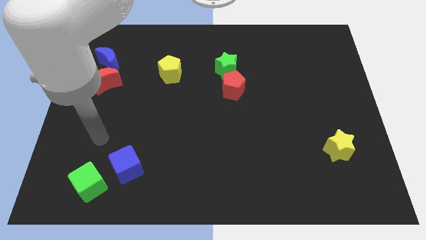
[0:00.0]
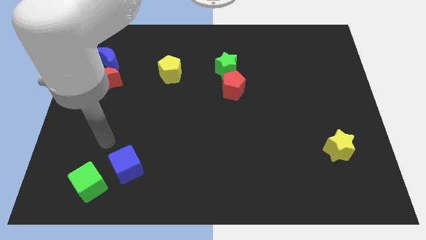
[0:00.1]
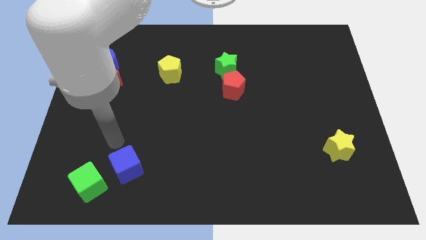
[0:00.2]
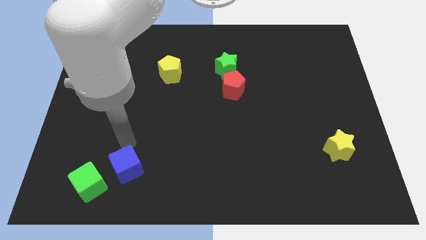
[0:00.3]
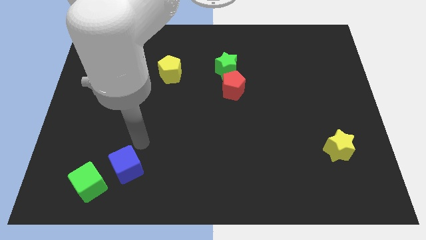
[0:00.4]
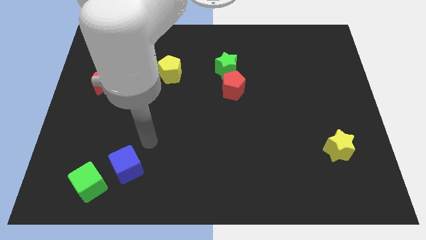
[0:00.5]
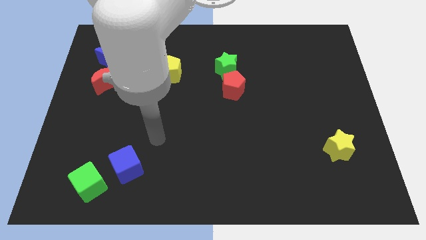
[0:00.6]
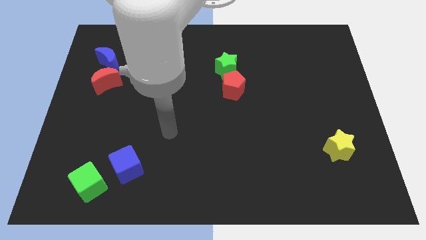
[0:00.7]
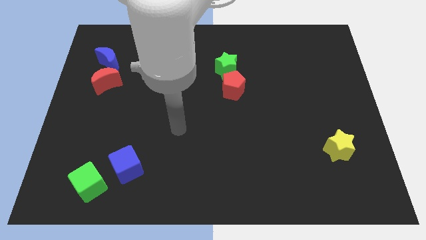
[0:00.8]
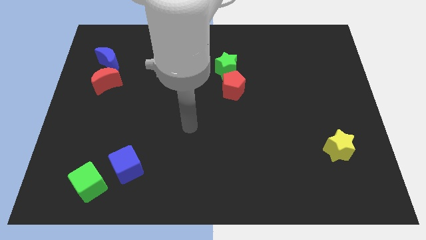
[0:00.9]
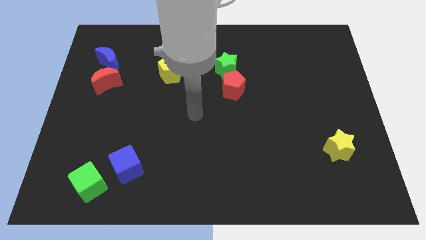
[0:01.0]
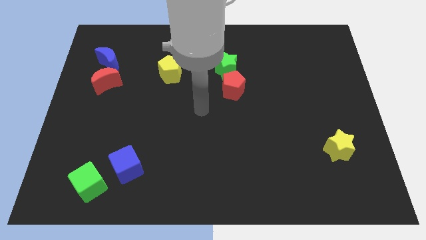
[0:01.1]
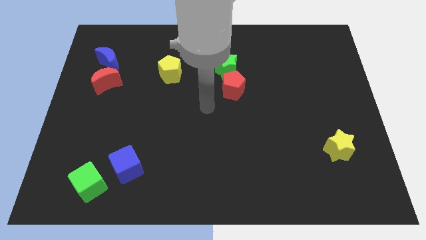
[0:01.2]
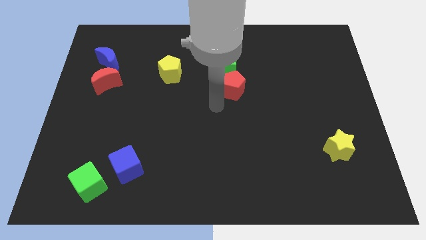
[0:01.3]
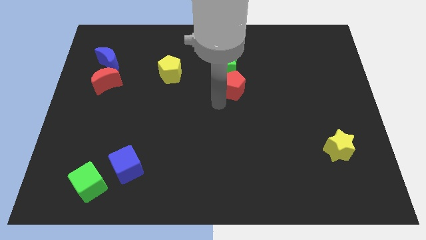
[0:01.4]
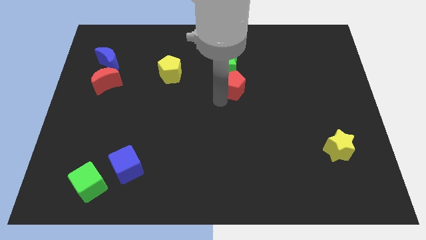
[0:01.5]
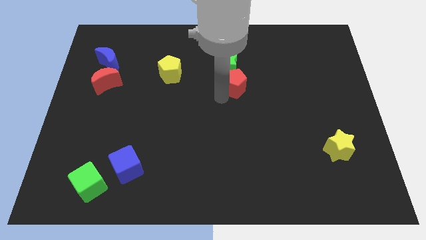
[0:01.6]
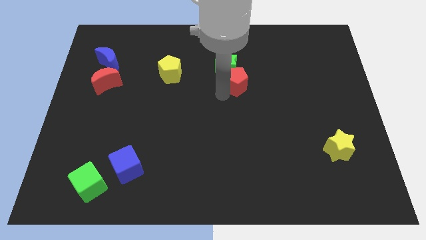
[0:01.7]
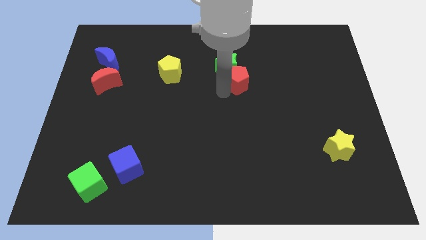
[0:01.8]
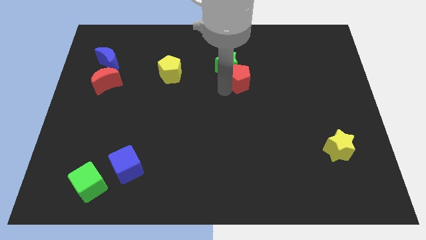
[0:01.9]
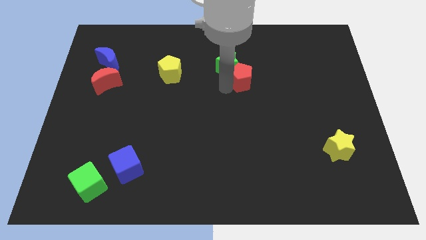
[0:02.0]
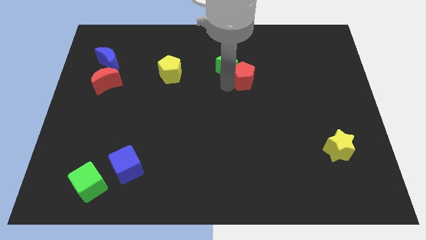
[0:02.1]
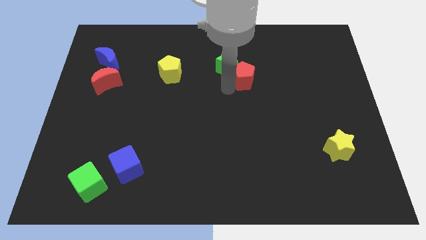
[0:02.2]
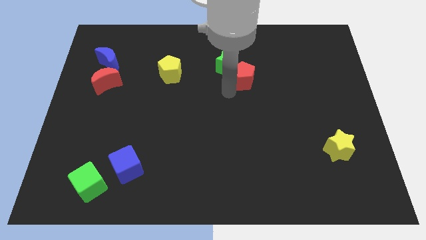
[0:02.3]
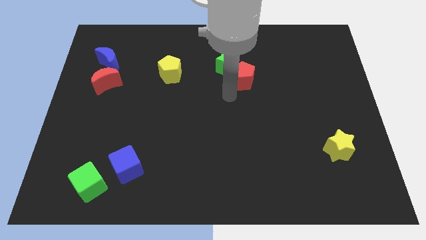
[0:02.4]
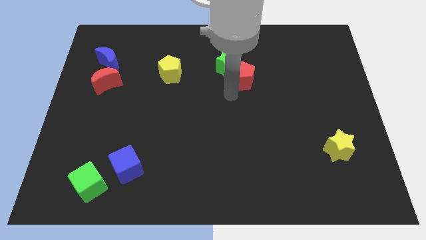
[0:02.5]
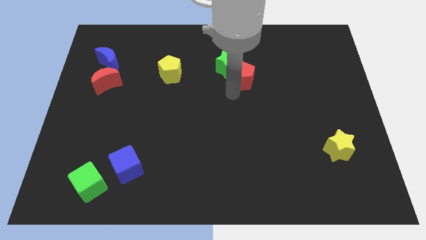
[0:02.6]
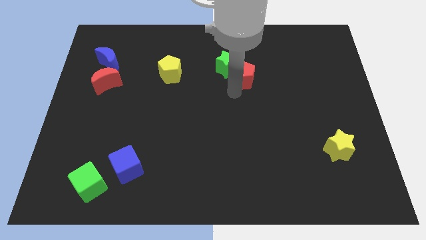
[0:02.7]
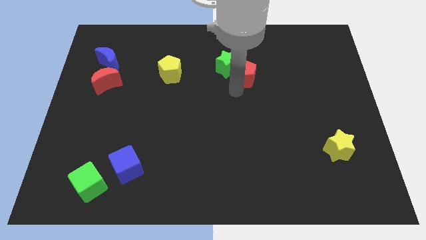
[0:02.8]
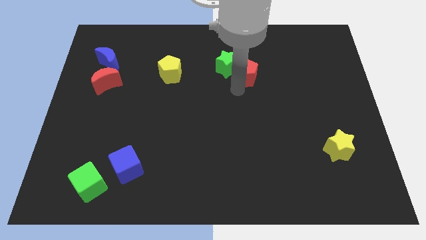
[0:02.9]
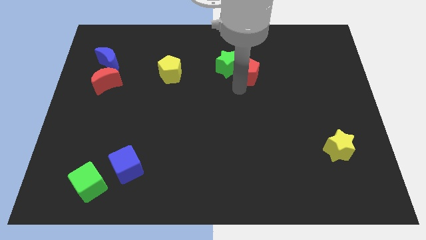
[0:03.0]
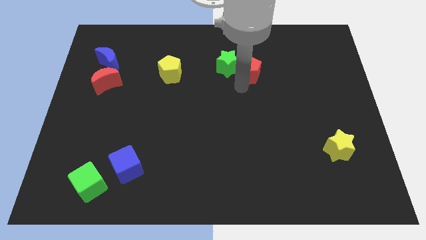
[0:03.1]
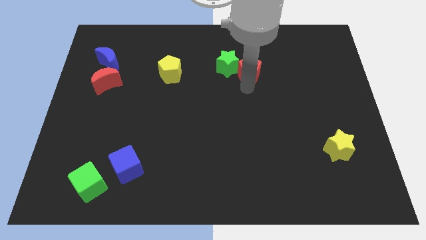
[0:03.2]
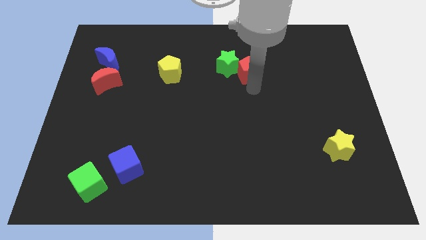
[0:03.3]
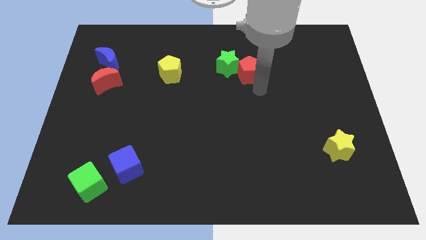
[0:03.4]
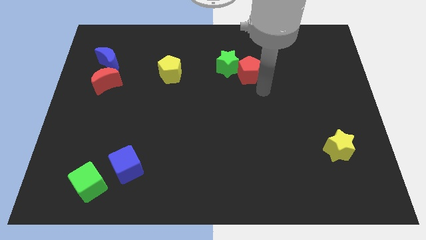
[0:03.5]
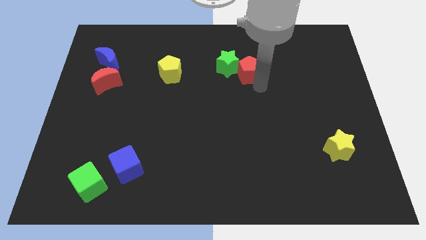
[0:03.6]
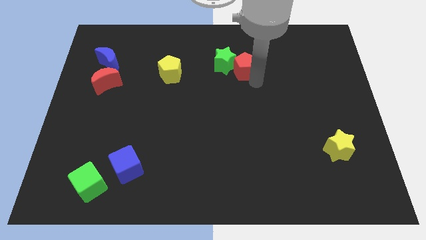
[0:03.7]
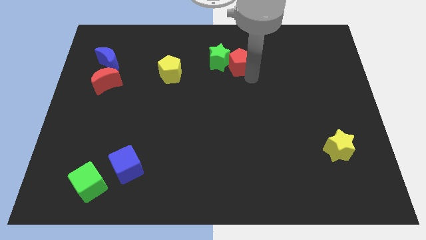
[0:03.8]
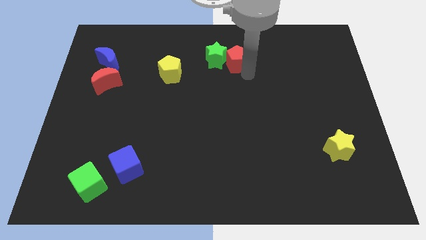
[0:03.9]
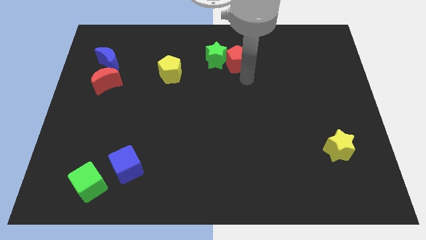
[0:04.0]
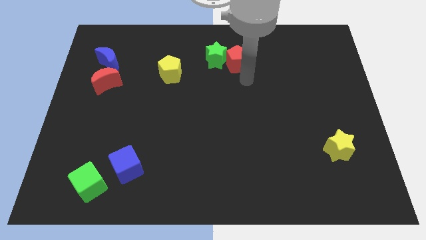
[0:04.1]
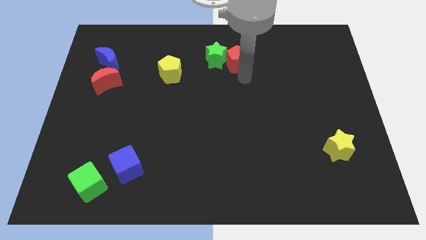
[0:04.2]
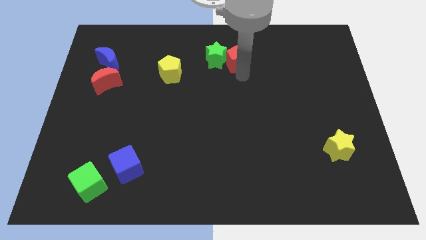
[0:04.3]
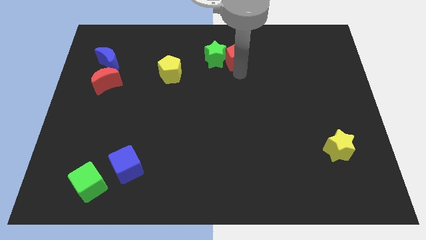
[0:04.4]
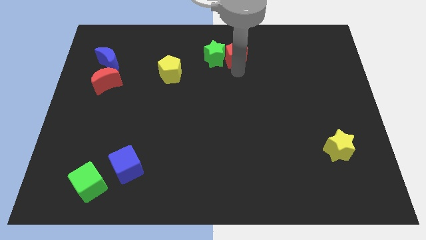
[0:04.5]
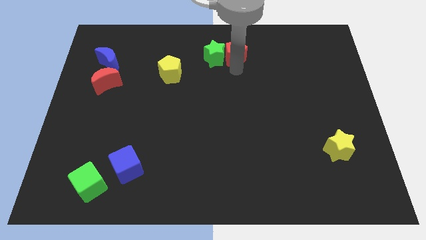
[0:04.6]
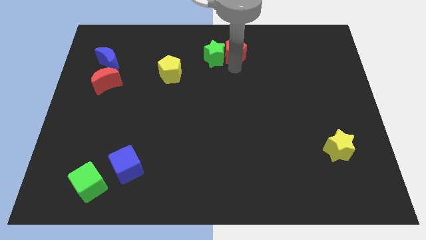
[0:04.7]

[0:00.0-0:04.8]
push the red pentagon to the top side

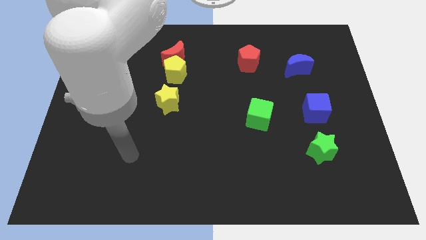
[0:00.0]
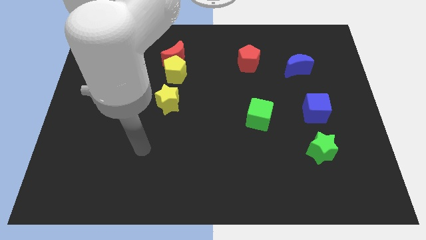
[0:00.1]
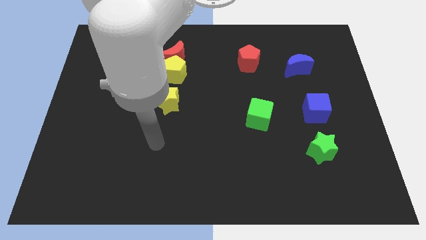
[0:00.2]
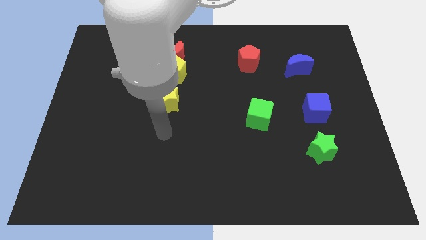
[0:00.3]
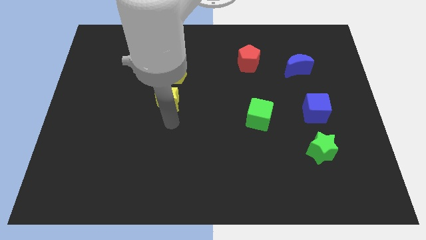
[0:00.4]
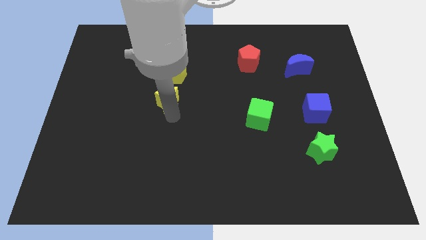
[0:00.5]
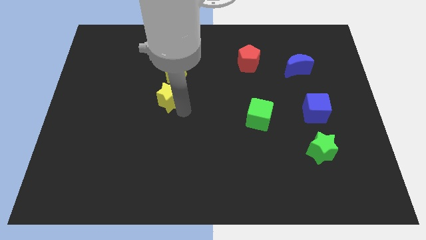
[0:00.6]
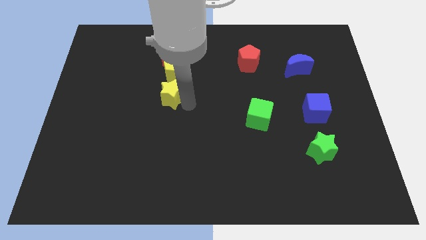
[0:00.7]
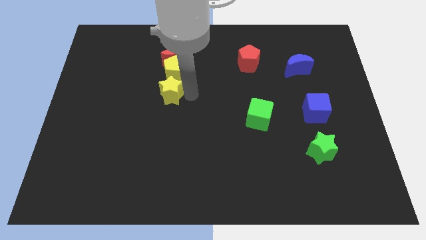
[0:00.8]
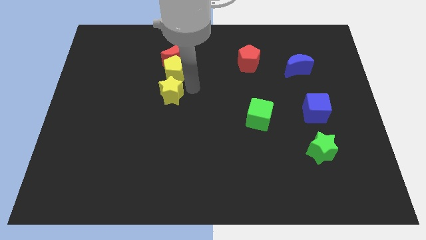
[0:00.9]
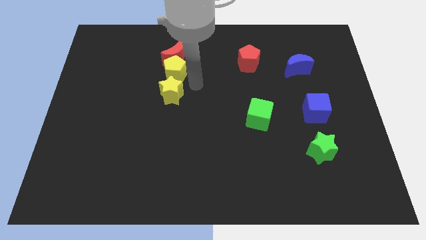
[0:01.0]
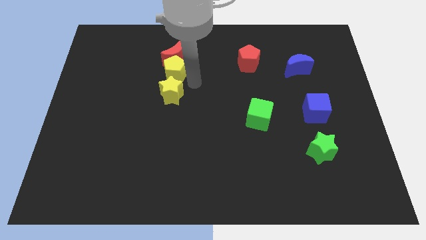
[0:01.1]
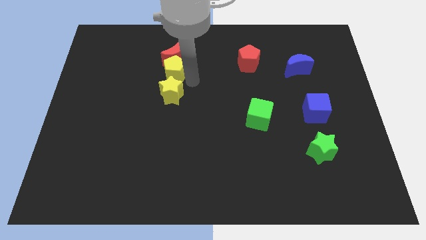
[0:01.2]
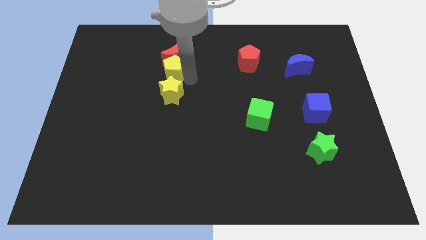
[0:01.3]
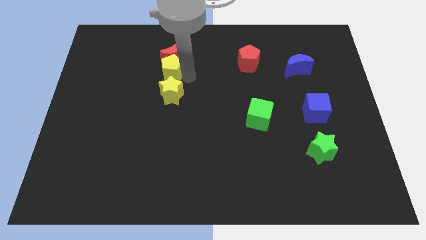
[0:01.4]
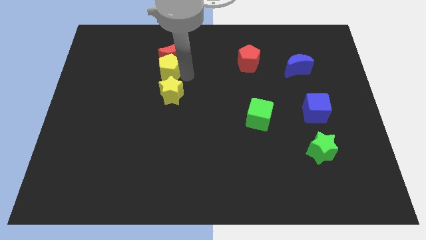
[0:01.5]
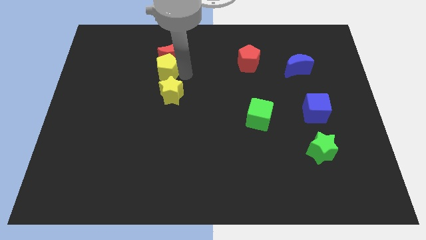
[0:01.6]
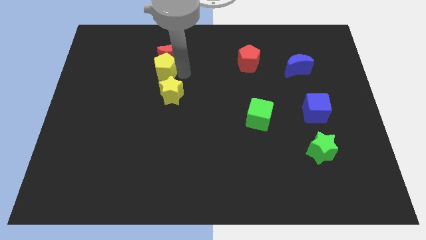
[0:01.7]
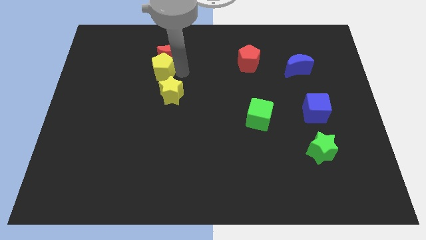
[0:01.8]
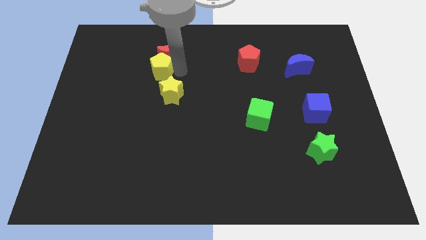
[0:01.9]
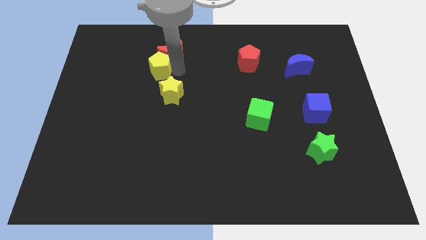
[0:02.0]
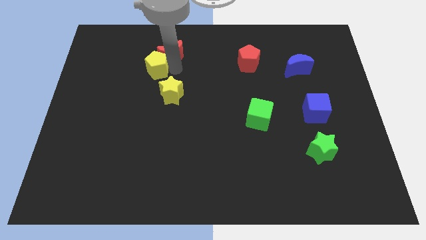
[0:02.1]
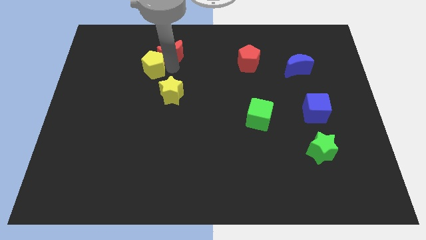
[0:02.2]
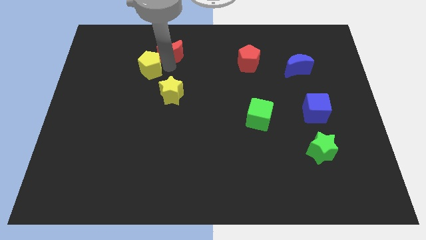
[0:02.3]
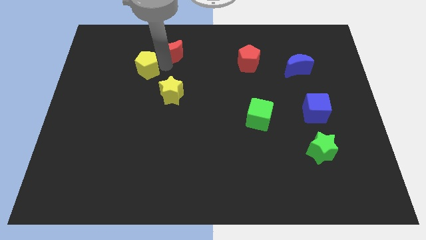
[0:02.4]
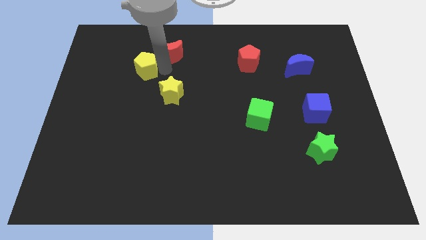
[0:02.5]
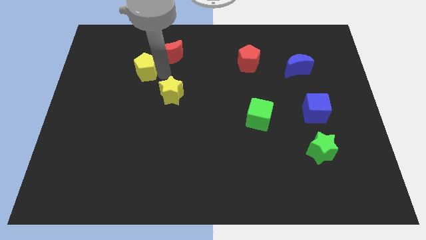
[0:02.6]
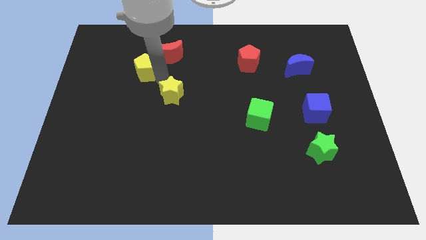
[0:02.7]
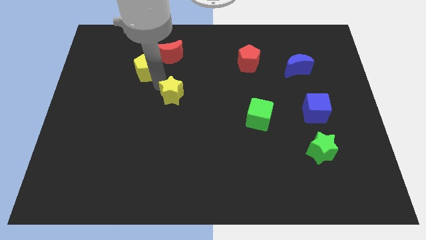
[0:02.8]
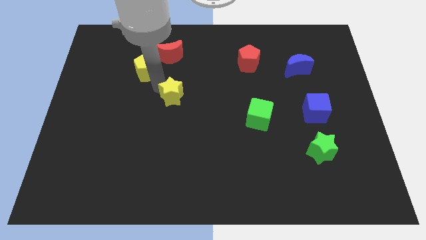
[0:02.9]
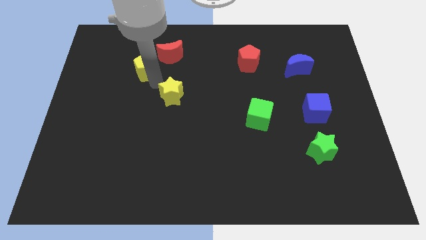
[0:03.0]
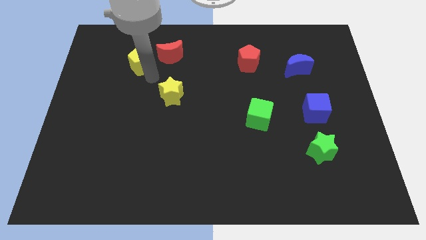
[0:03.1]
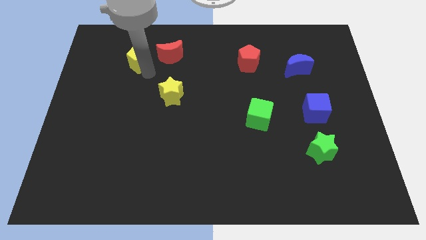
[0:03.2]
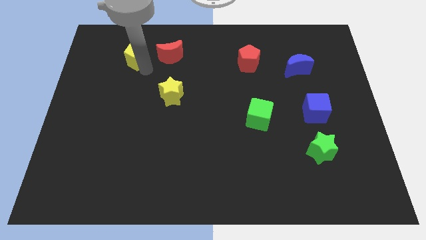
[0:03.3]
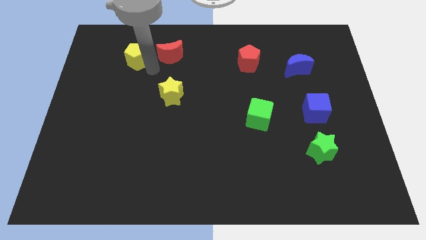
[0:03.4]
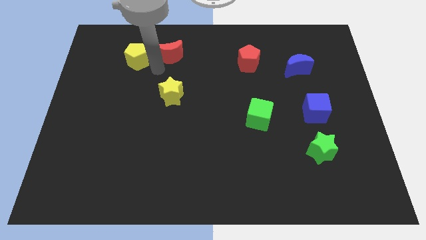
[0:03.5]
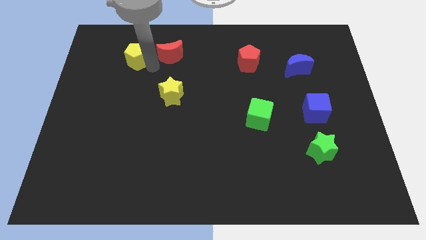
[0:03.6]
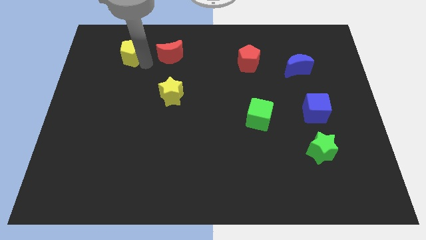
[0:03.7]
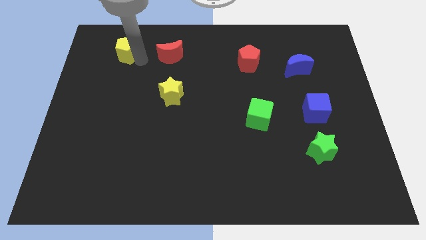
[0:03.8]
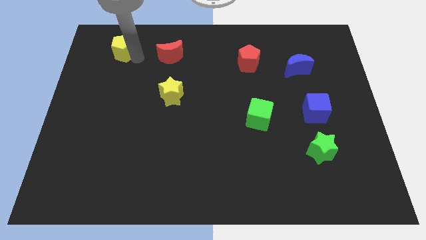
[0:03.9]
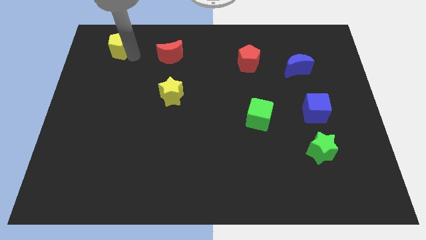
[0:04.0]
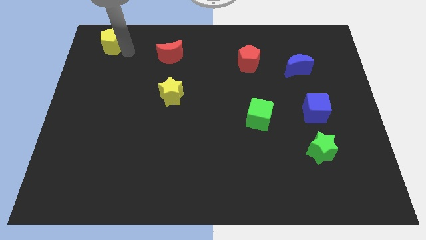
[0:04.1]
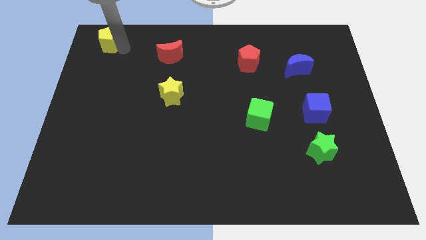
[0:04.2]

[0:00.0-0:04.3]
slide the yellow pentagon to the upper left corner
